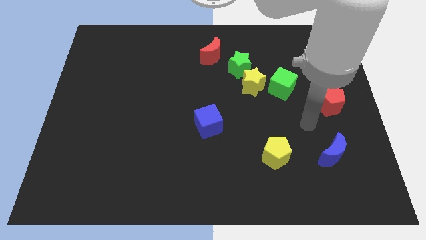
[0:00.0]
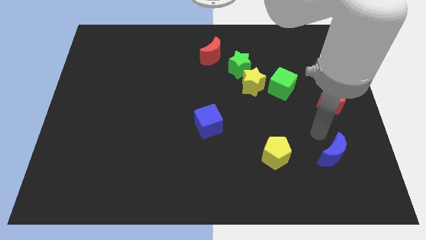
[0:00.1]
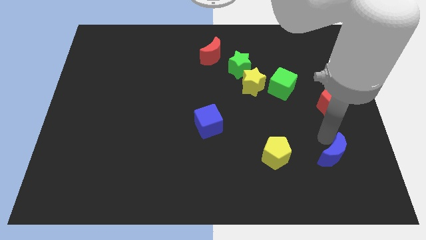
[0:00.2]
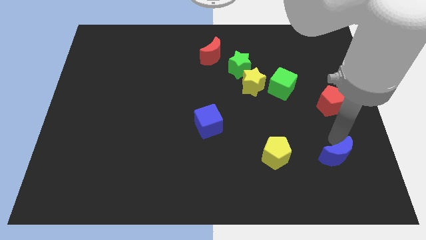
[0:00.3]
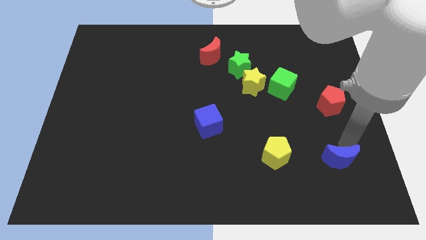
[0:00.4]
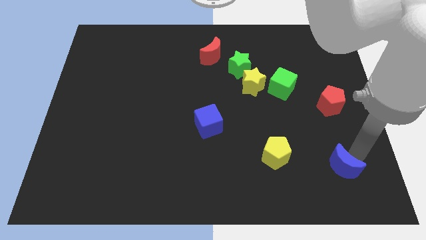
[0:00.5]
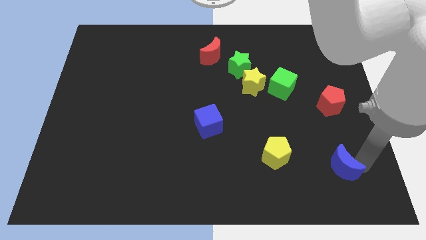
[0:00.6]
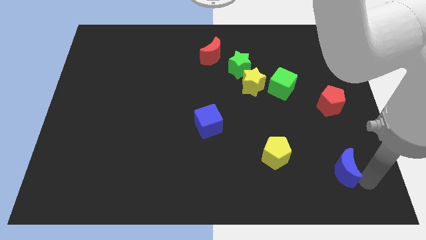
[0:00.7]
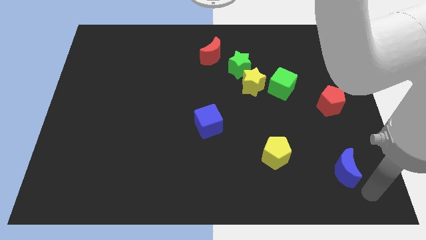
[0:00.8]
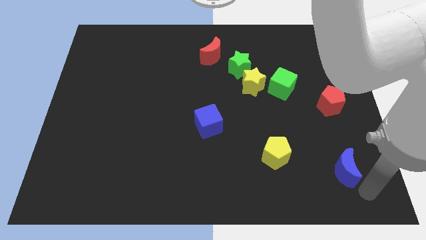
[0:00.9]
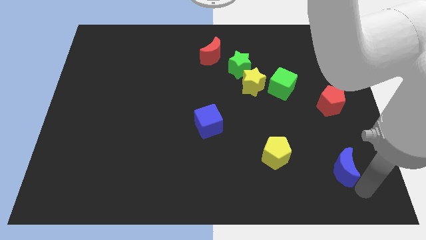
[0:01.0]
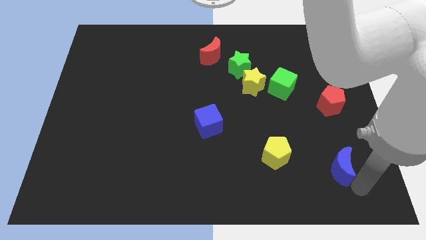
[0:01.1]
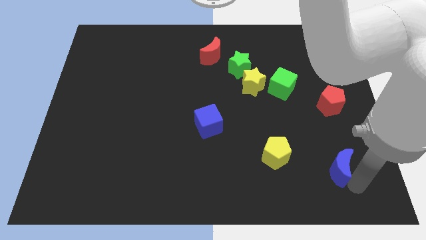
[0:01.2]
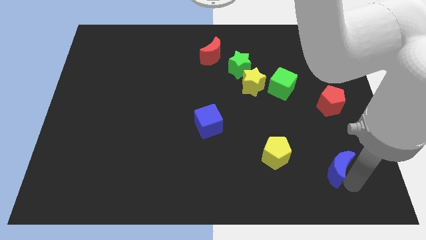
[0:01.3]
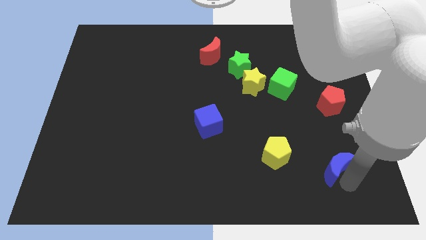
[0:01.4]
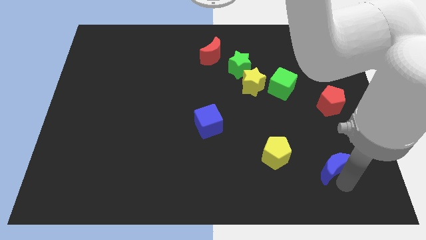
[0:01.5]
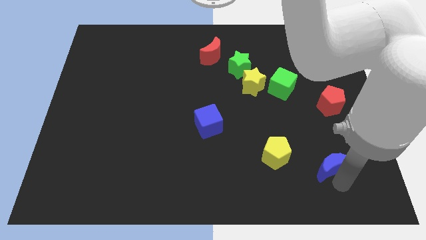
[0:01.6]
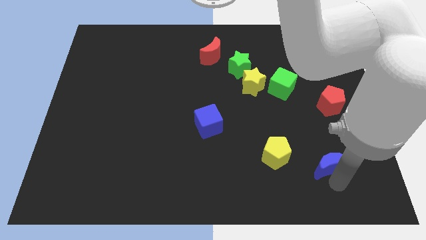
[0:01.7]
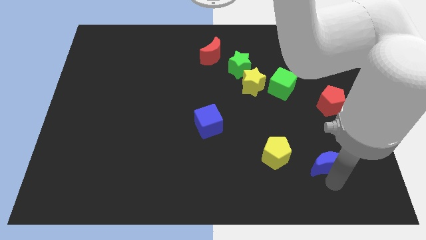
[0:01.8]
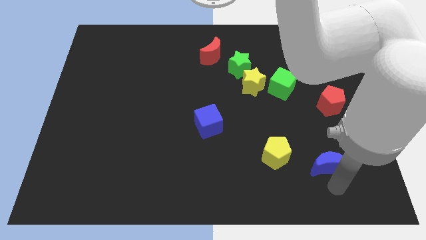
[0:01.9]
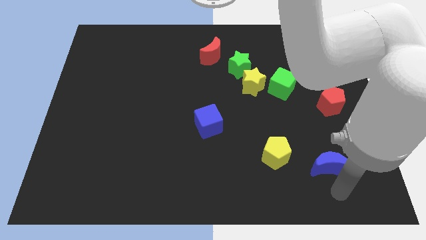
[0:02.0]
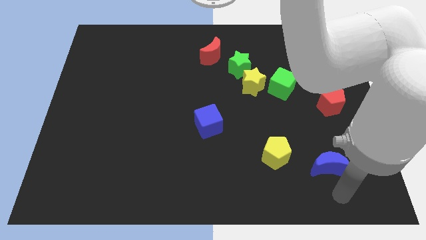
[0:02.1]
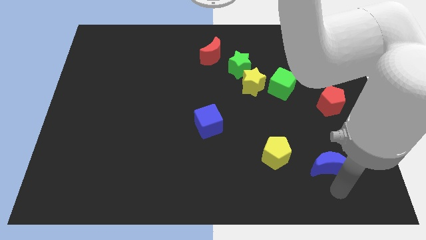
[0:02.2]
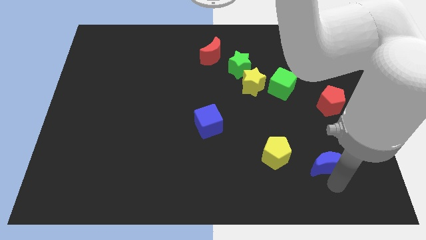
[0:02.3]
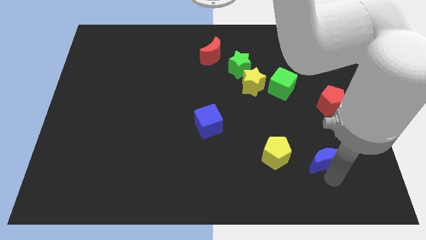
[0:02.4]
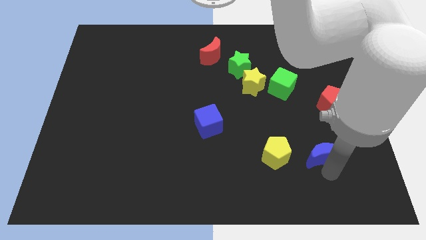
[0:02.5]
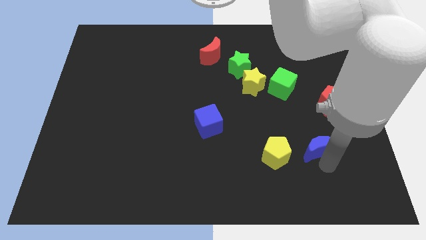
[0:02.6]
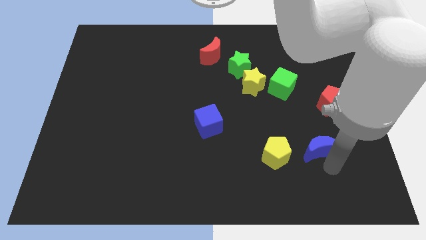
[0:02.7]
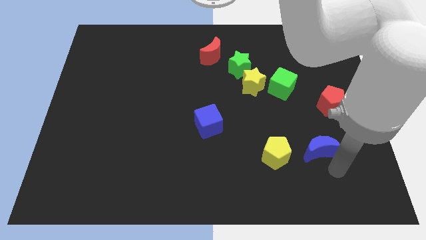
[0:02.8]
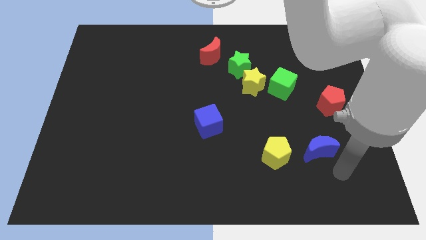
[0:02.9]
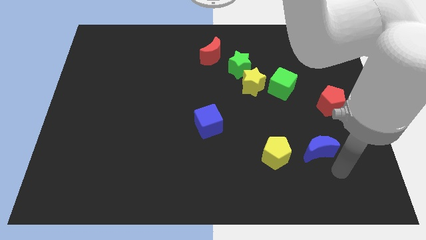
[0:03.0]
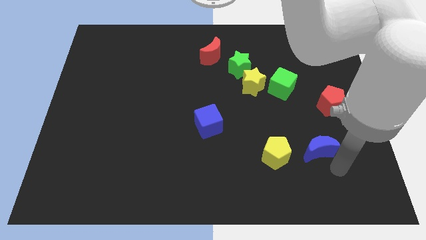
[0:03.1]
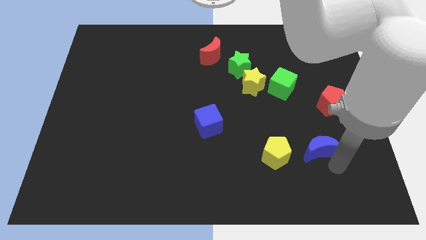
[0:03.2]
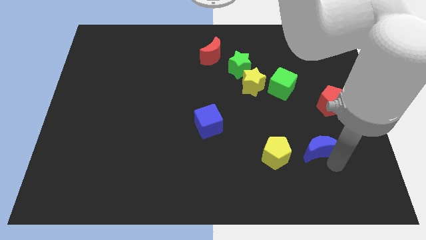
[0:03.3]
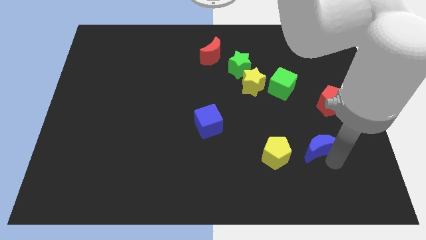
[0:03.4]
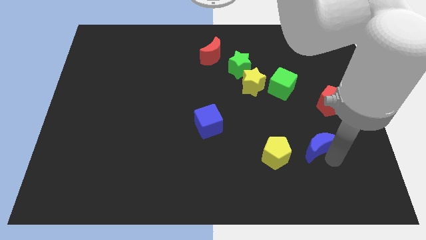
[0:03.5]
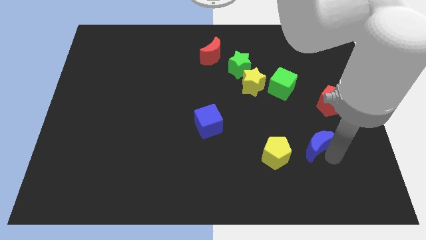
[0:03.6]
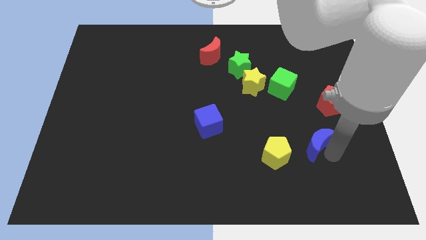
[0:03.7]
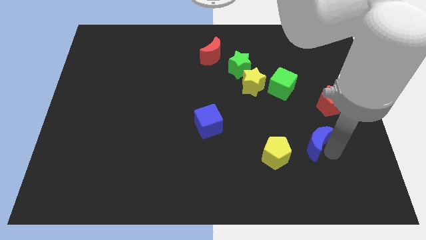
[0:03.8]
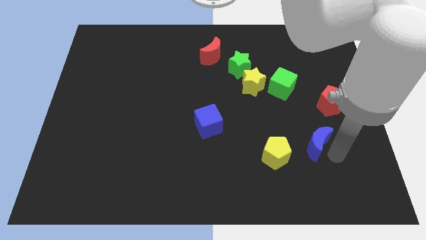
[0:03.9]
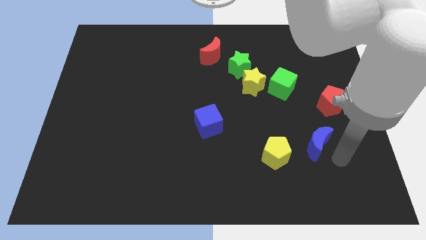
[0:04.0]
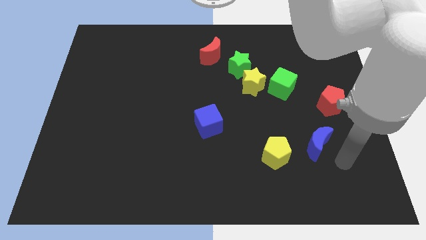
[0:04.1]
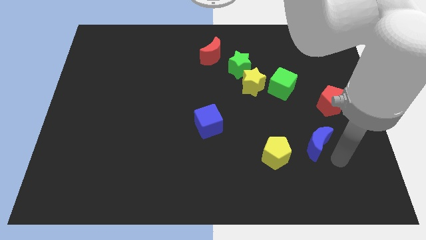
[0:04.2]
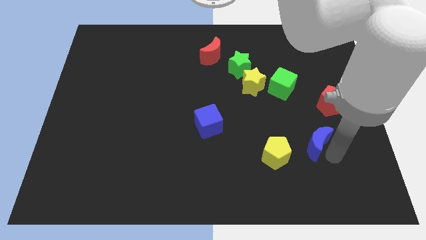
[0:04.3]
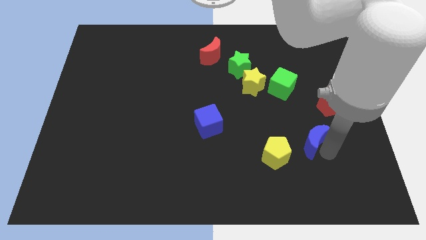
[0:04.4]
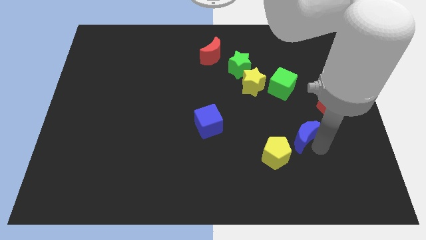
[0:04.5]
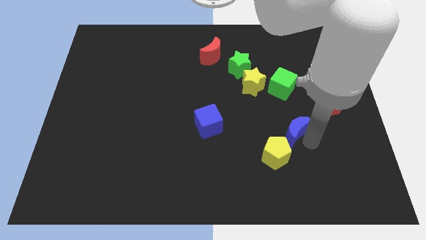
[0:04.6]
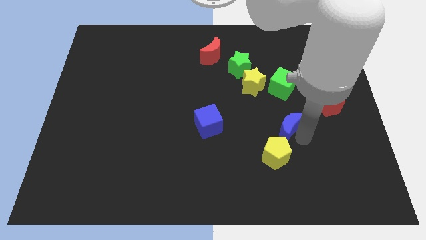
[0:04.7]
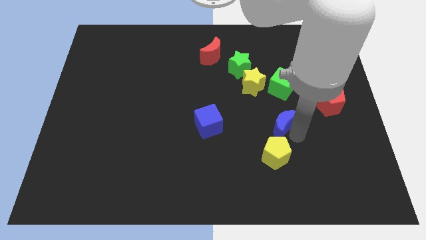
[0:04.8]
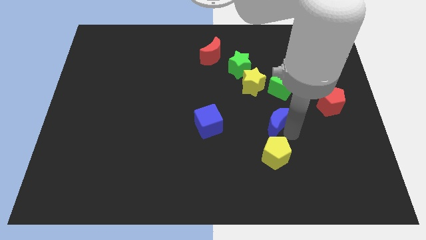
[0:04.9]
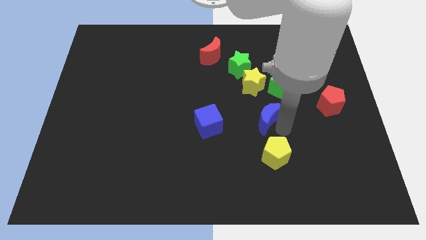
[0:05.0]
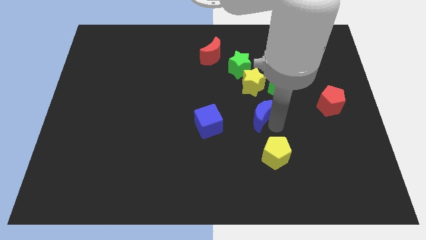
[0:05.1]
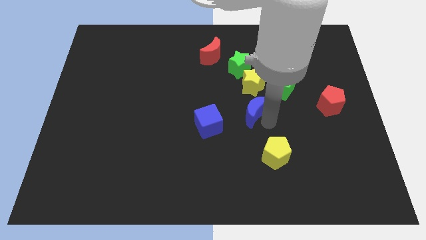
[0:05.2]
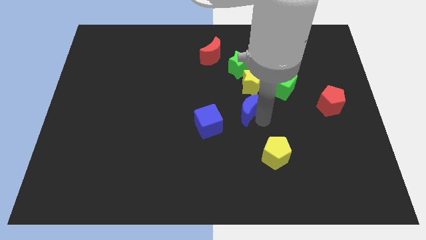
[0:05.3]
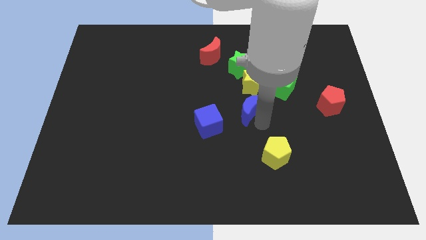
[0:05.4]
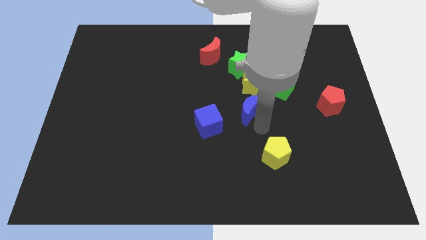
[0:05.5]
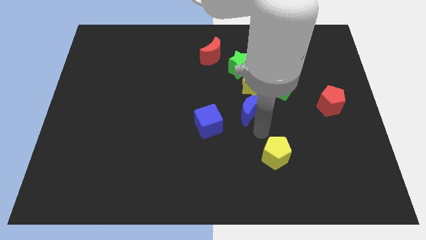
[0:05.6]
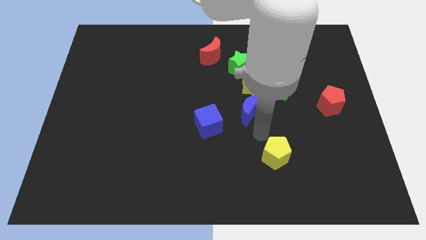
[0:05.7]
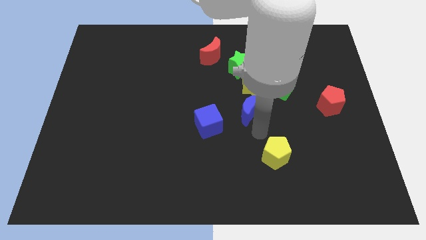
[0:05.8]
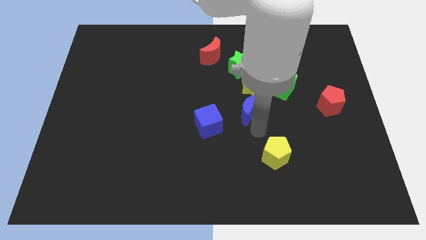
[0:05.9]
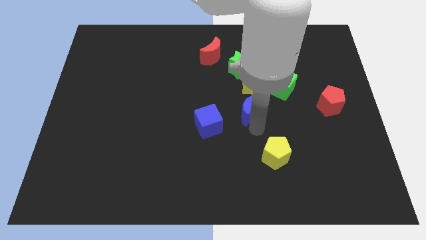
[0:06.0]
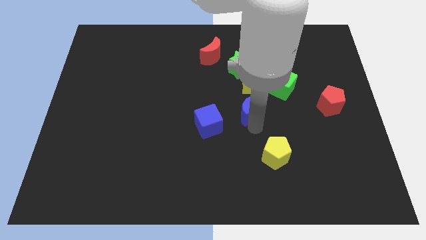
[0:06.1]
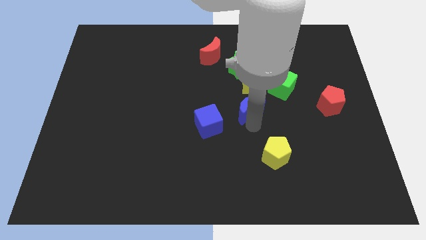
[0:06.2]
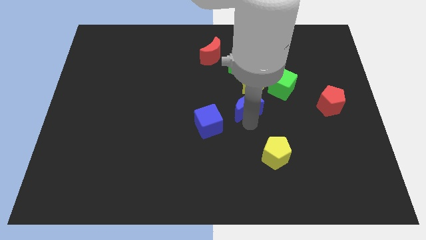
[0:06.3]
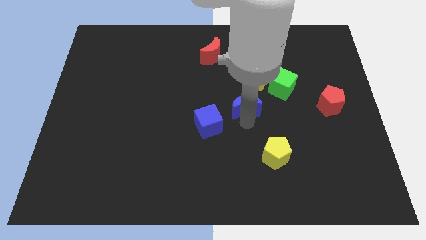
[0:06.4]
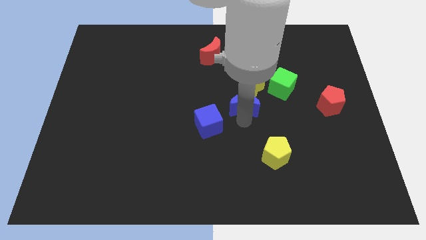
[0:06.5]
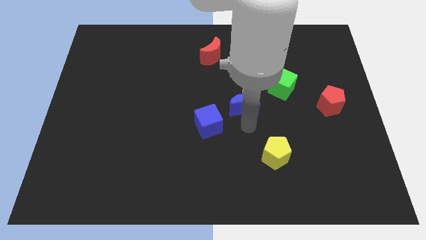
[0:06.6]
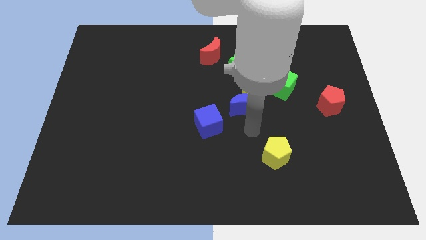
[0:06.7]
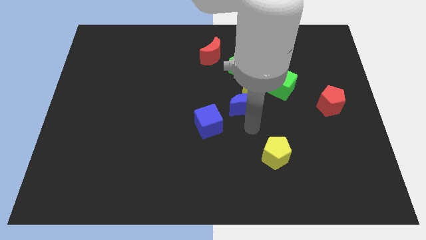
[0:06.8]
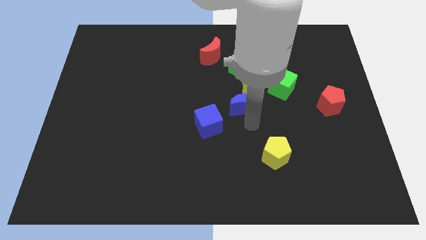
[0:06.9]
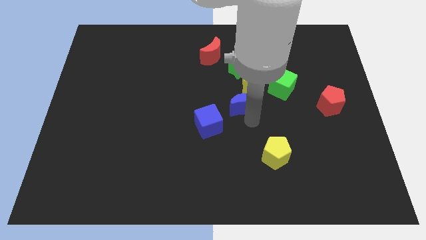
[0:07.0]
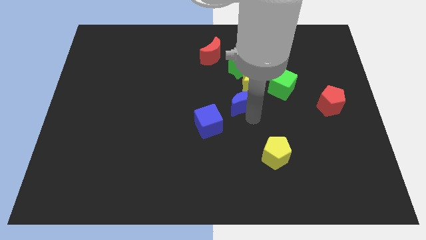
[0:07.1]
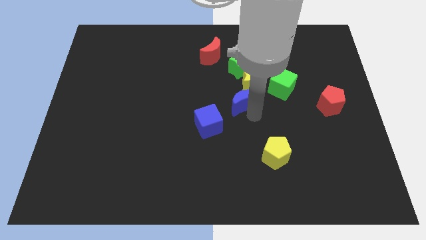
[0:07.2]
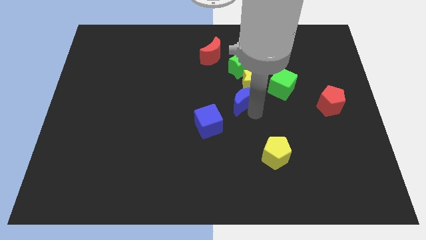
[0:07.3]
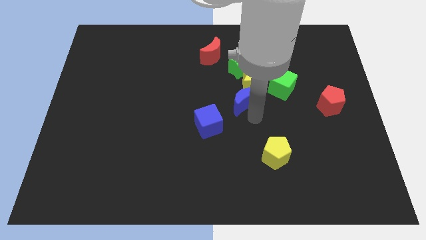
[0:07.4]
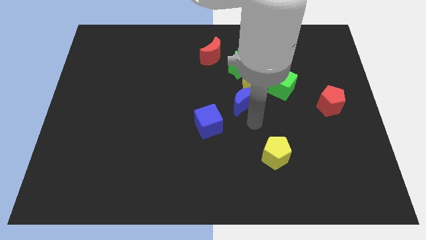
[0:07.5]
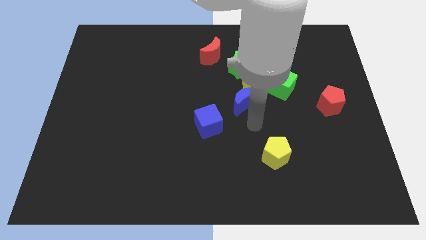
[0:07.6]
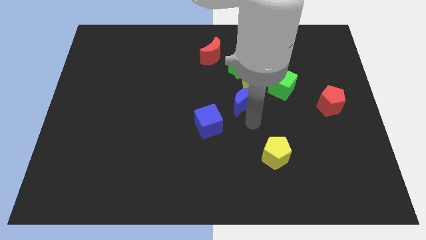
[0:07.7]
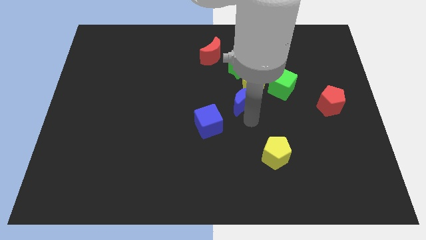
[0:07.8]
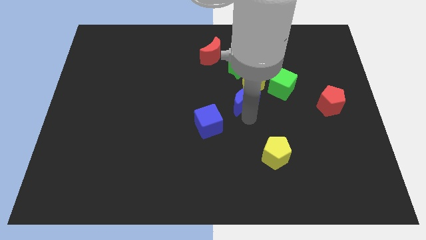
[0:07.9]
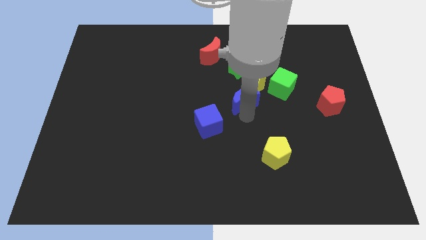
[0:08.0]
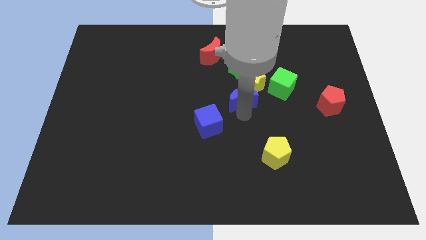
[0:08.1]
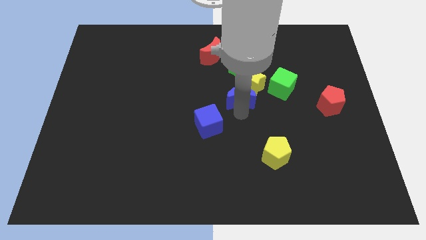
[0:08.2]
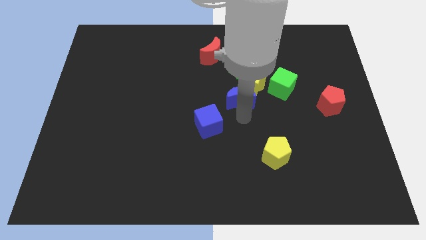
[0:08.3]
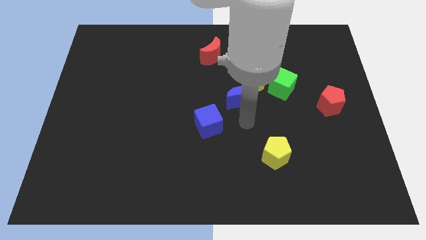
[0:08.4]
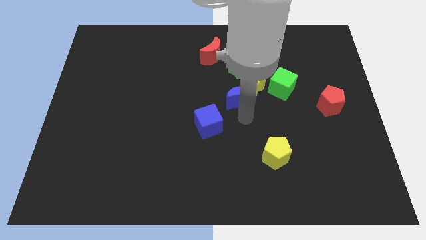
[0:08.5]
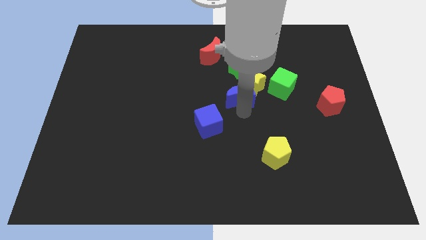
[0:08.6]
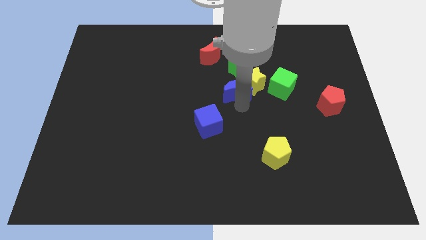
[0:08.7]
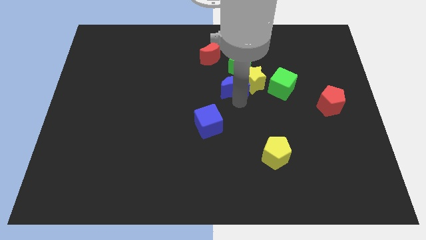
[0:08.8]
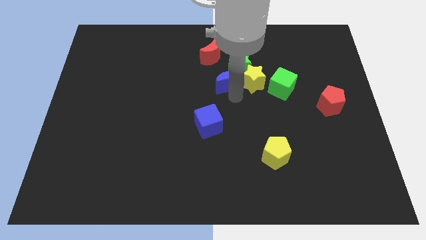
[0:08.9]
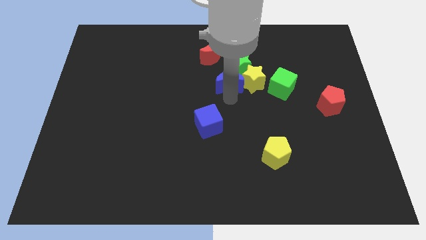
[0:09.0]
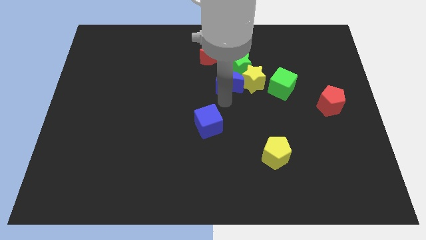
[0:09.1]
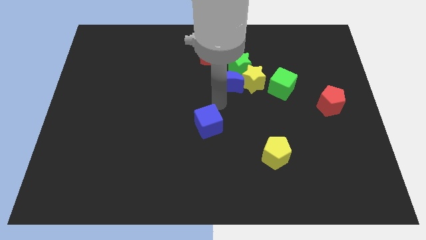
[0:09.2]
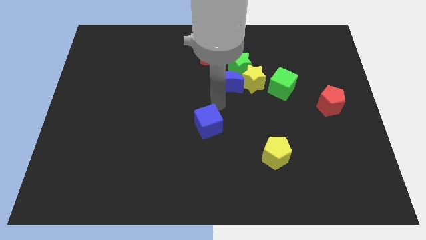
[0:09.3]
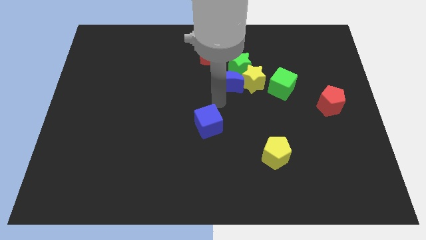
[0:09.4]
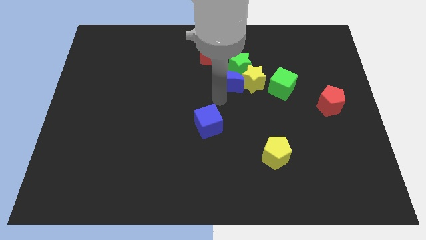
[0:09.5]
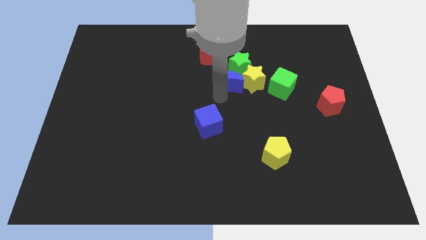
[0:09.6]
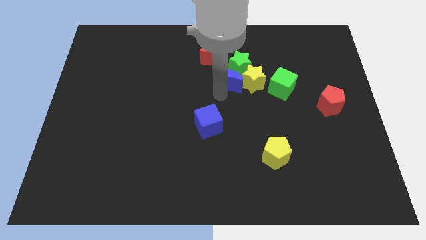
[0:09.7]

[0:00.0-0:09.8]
move the blue moon towards the green star
